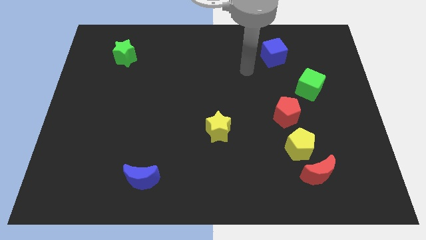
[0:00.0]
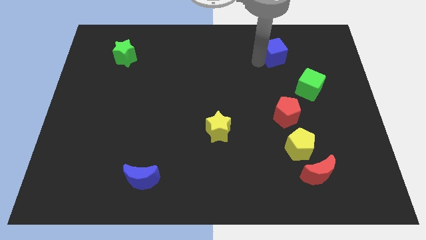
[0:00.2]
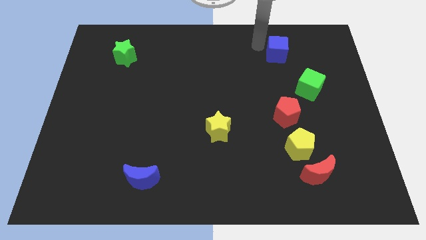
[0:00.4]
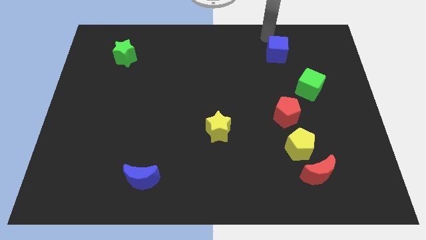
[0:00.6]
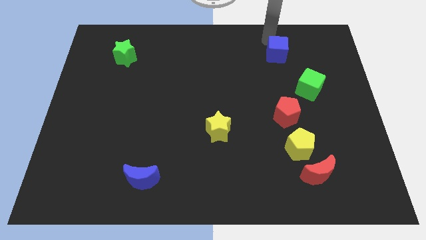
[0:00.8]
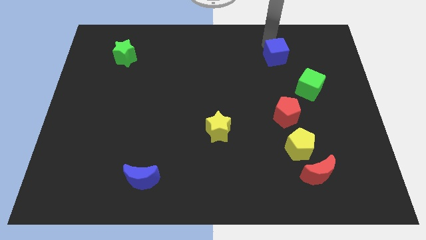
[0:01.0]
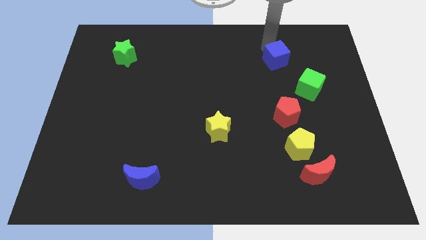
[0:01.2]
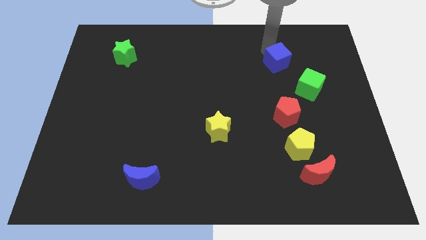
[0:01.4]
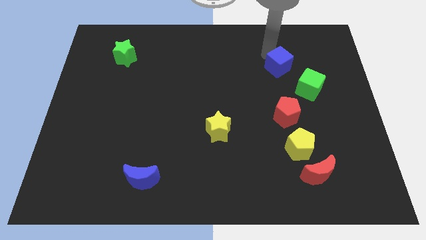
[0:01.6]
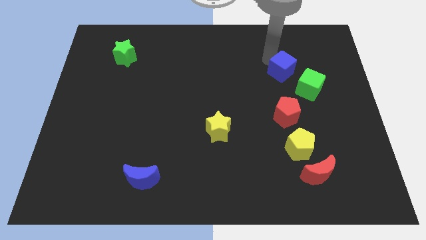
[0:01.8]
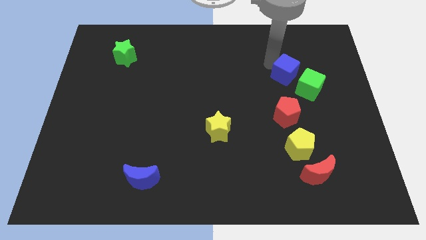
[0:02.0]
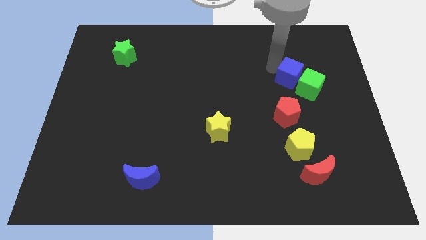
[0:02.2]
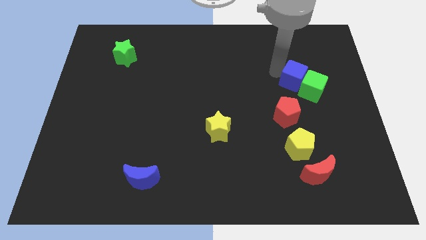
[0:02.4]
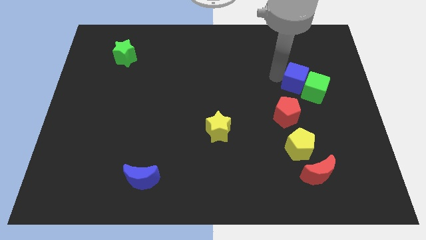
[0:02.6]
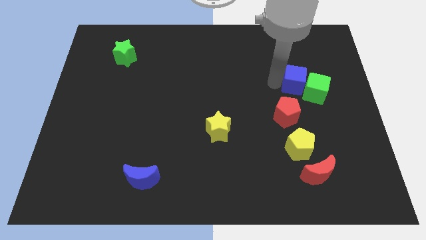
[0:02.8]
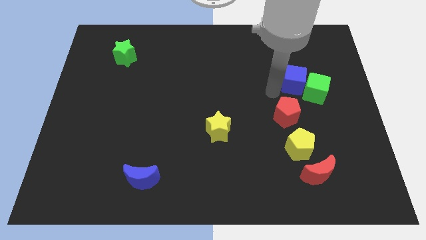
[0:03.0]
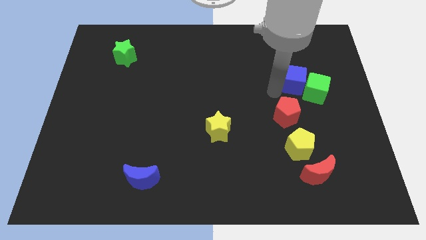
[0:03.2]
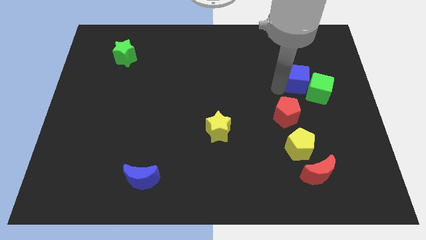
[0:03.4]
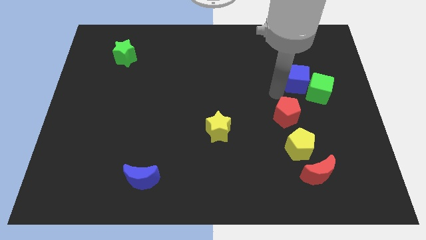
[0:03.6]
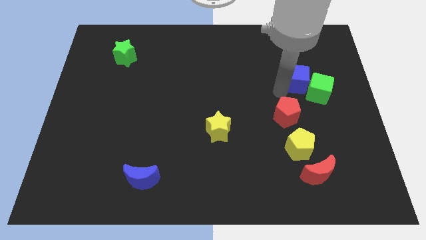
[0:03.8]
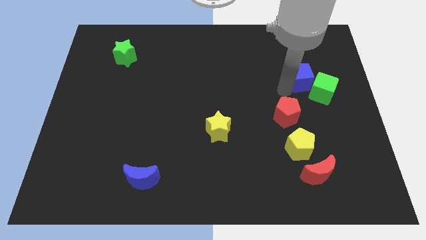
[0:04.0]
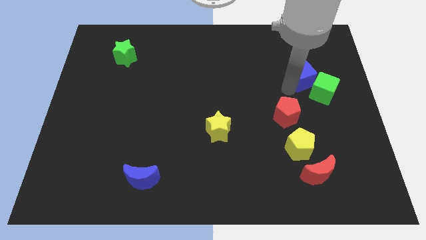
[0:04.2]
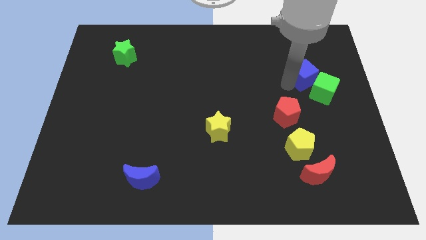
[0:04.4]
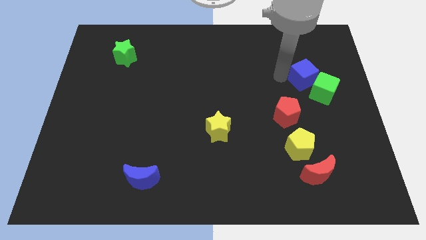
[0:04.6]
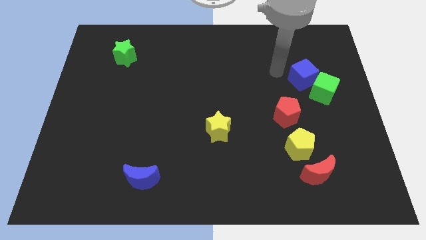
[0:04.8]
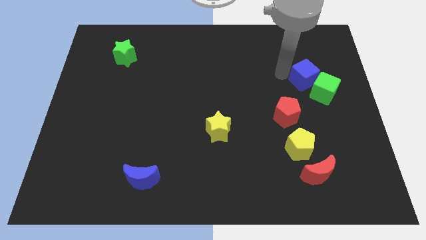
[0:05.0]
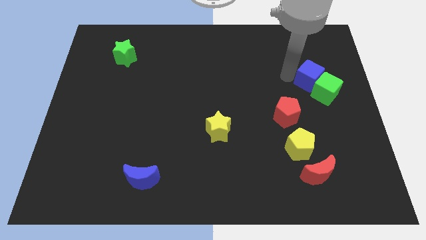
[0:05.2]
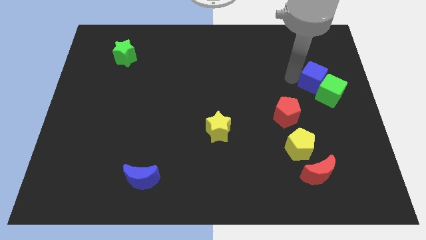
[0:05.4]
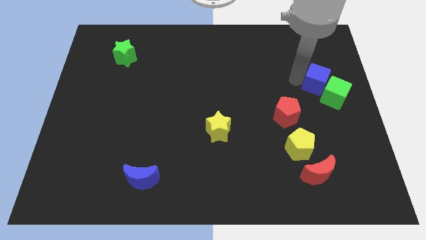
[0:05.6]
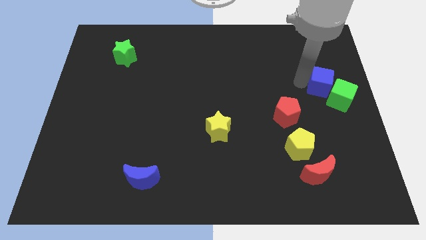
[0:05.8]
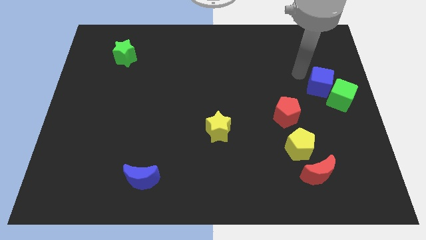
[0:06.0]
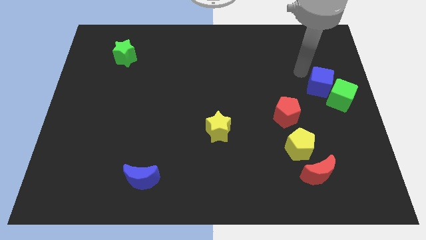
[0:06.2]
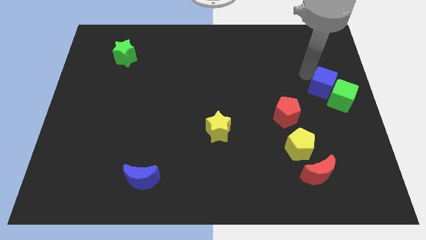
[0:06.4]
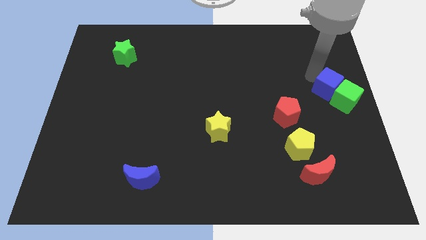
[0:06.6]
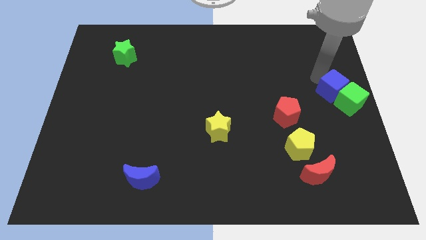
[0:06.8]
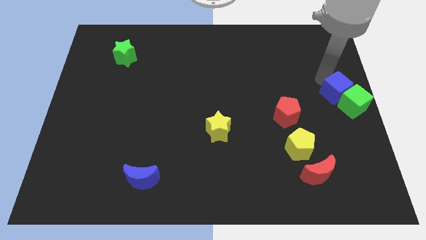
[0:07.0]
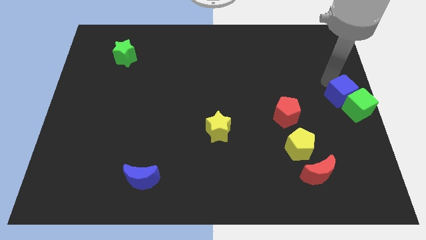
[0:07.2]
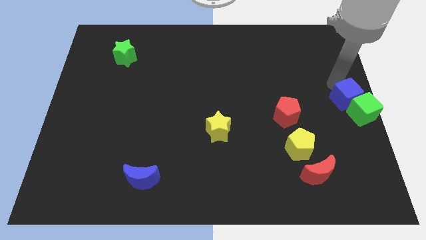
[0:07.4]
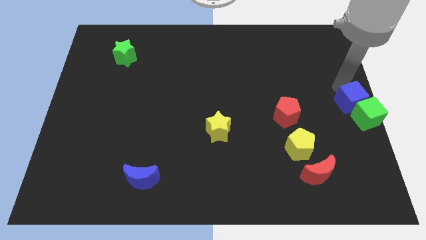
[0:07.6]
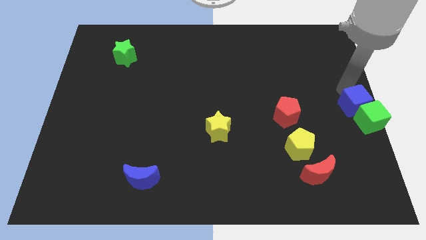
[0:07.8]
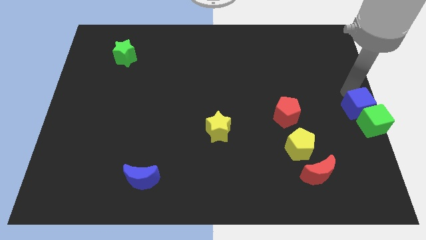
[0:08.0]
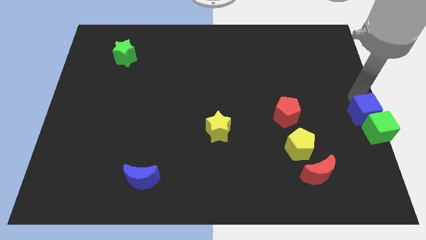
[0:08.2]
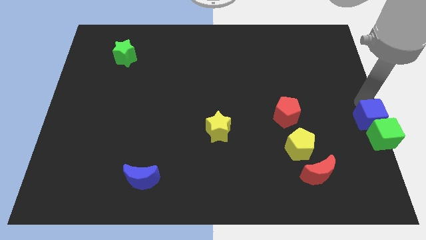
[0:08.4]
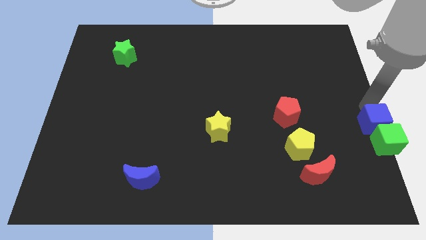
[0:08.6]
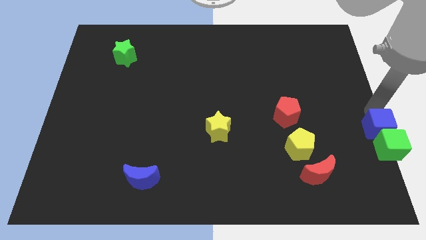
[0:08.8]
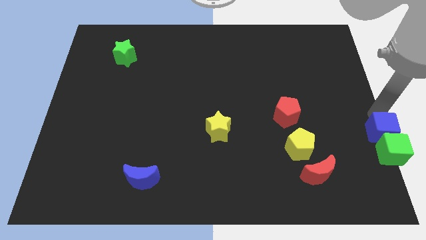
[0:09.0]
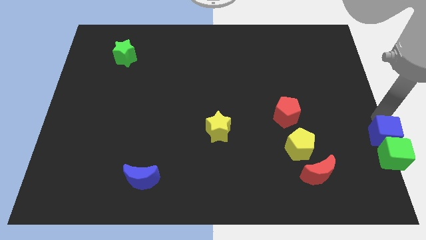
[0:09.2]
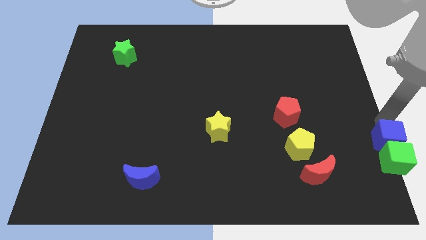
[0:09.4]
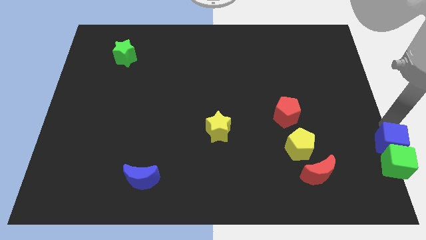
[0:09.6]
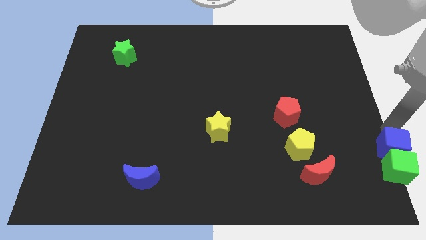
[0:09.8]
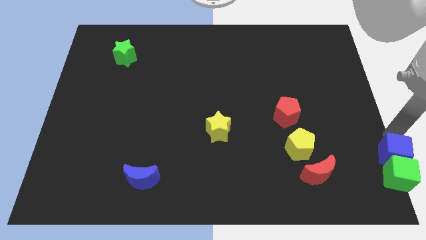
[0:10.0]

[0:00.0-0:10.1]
slide the blue cube to the bottom right corner

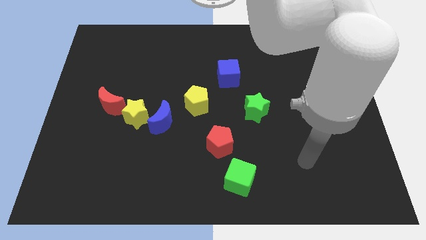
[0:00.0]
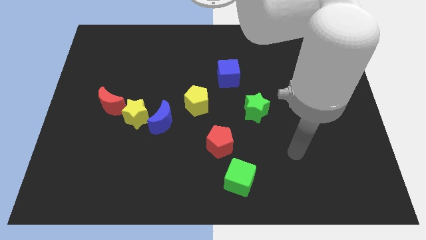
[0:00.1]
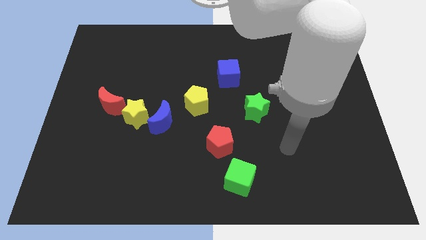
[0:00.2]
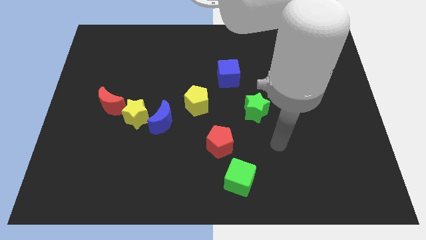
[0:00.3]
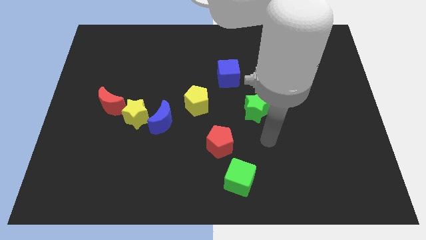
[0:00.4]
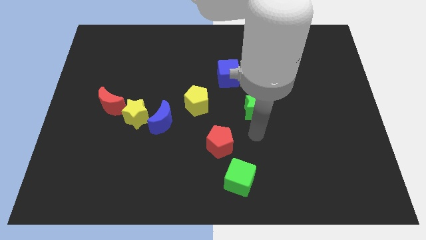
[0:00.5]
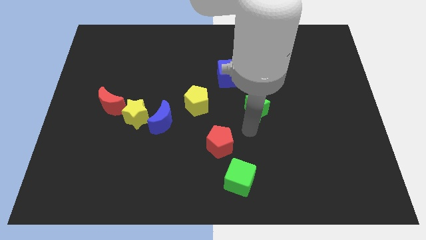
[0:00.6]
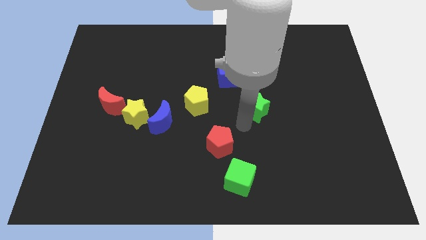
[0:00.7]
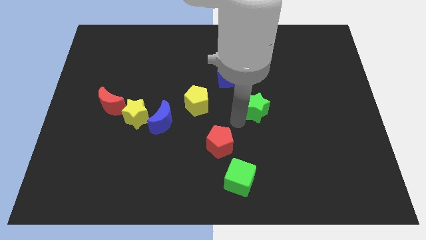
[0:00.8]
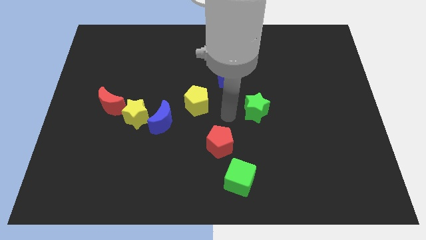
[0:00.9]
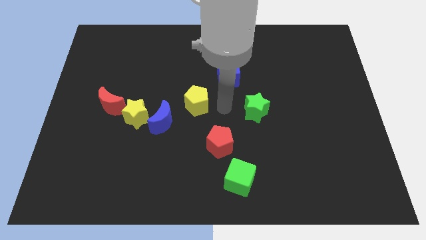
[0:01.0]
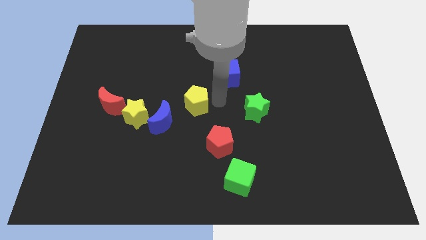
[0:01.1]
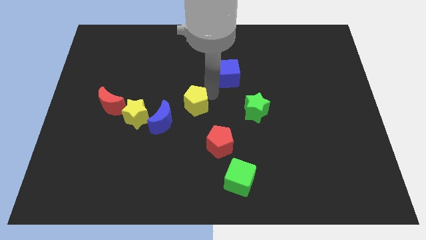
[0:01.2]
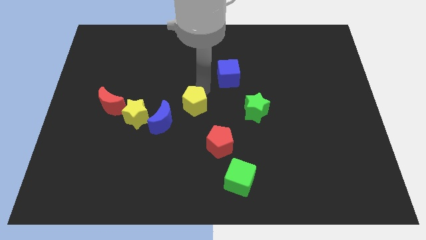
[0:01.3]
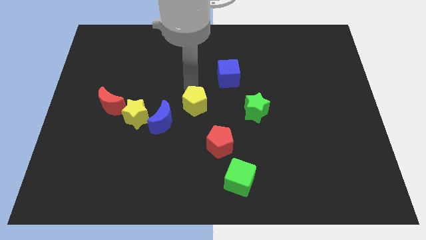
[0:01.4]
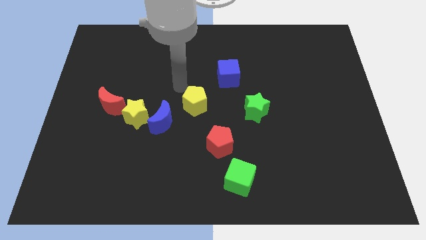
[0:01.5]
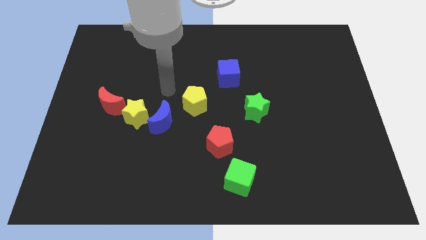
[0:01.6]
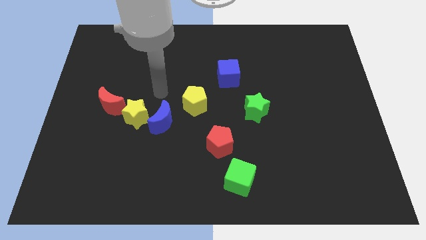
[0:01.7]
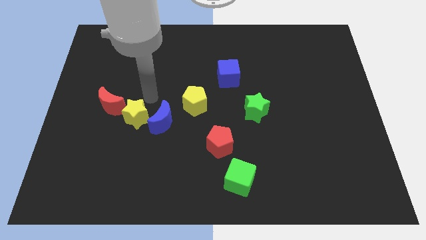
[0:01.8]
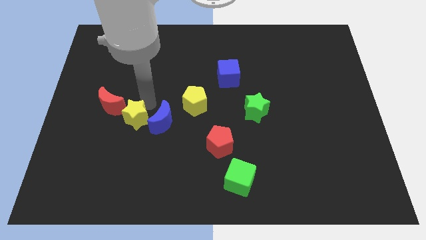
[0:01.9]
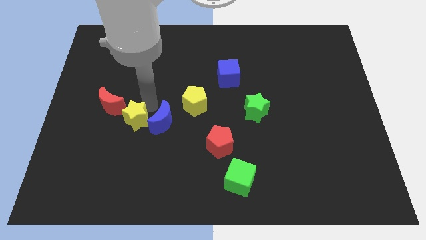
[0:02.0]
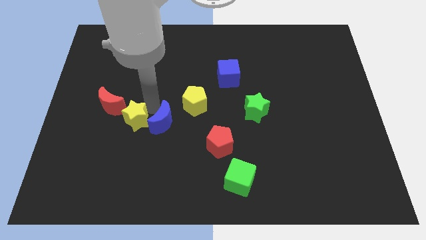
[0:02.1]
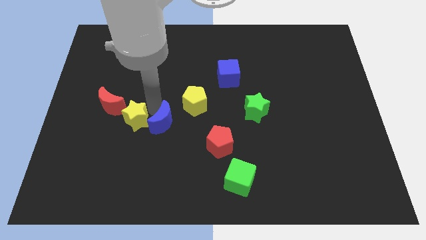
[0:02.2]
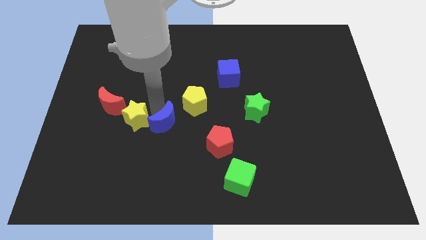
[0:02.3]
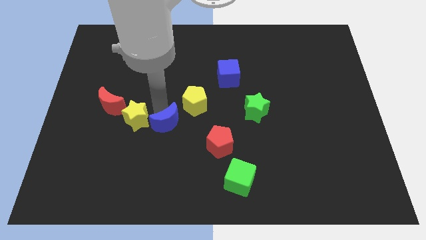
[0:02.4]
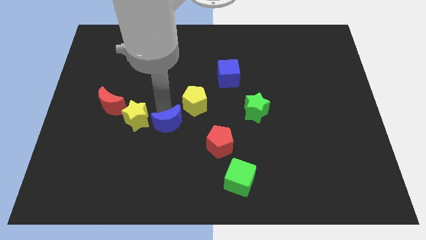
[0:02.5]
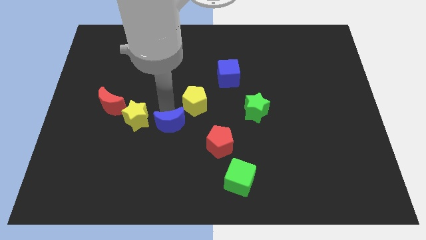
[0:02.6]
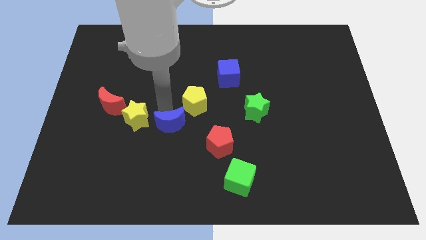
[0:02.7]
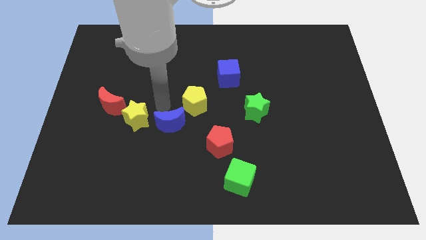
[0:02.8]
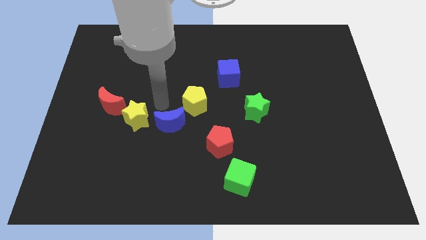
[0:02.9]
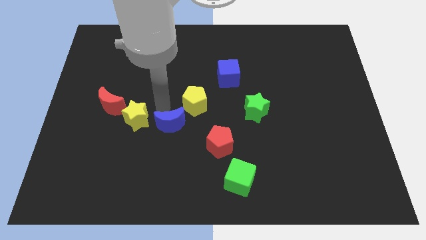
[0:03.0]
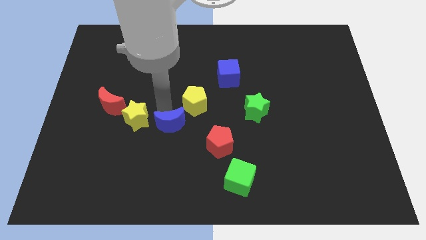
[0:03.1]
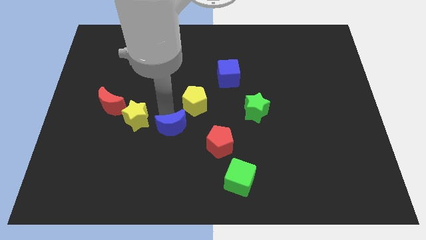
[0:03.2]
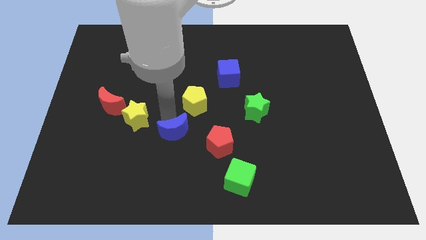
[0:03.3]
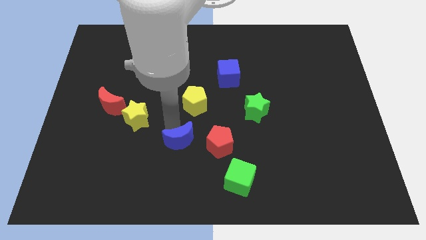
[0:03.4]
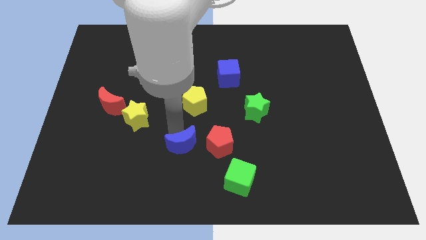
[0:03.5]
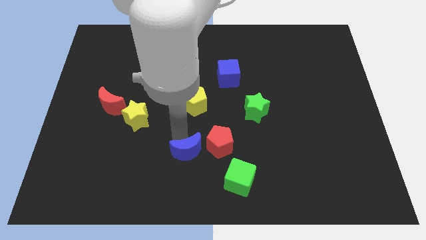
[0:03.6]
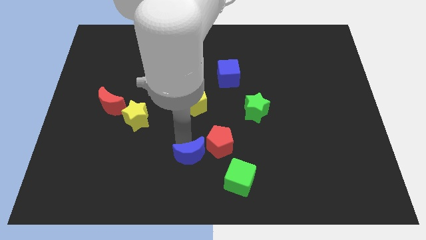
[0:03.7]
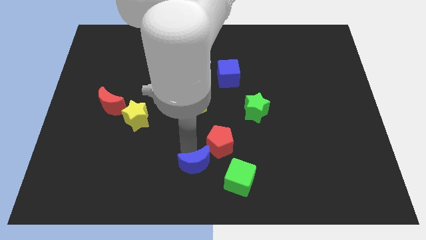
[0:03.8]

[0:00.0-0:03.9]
slide the blue moon to the bottom
